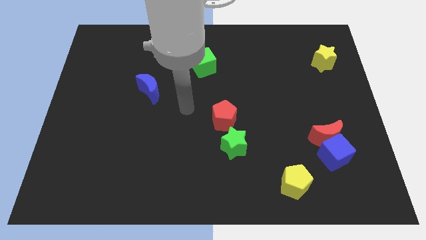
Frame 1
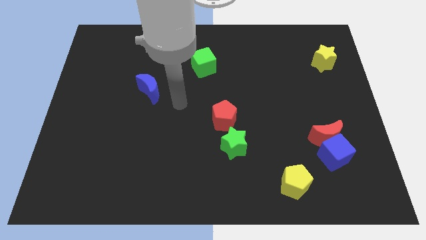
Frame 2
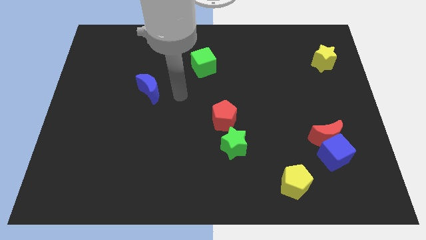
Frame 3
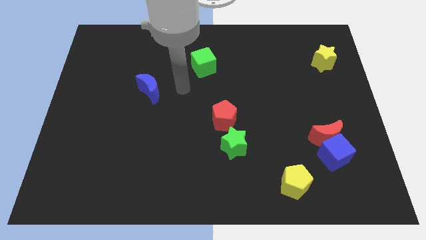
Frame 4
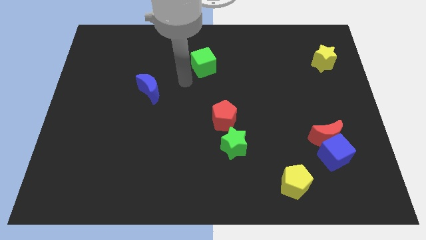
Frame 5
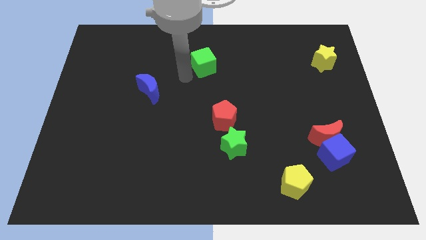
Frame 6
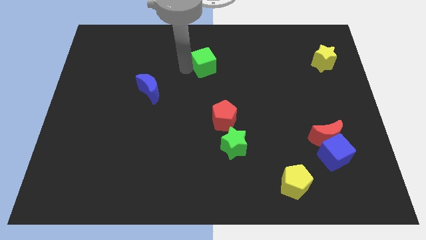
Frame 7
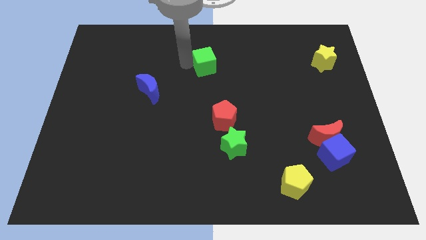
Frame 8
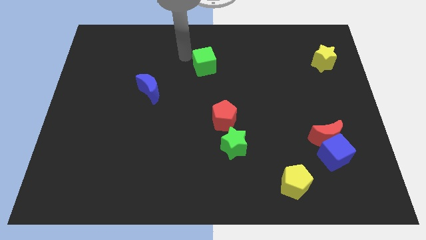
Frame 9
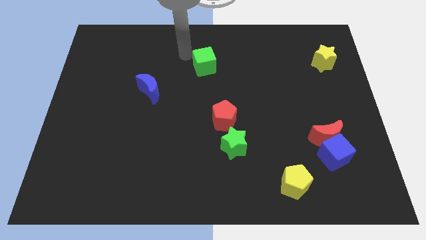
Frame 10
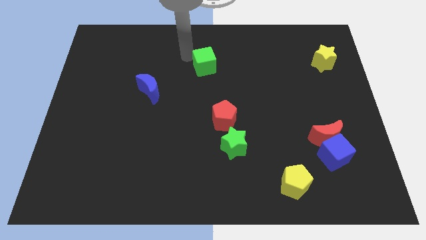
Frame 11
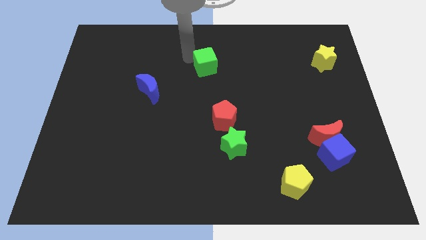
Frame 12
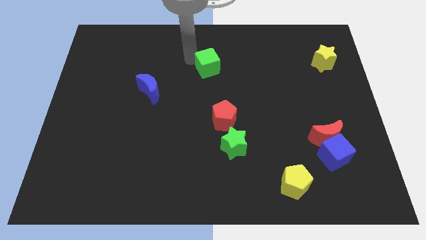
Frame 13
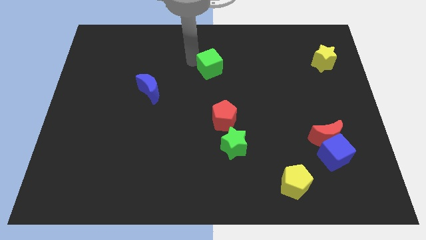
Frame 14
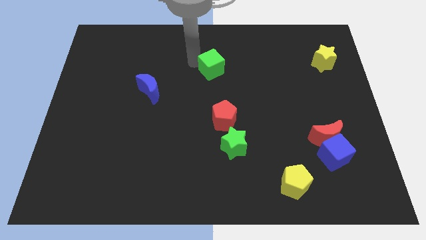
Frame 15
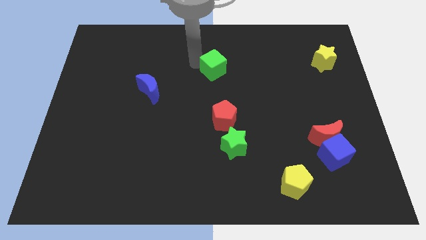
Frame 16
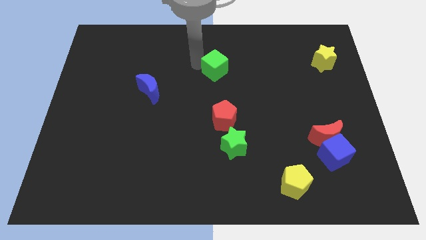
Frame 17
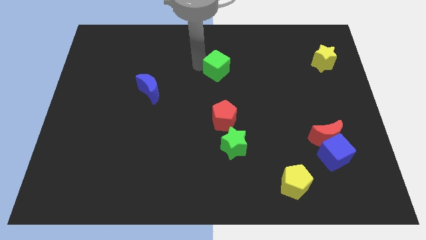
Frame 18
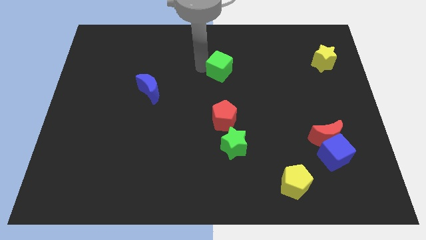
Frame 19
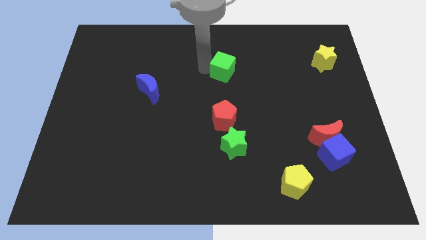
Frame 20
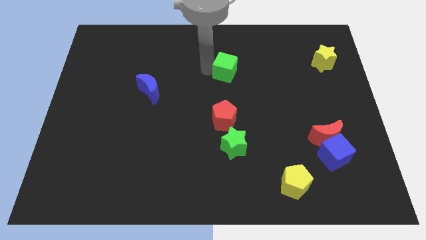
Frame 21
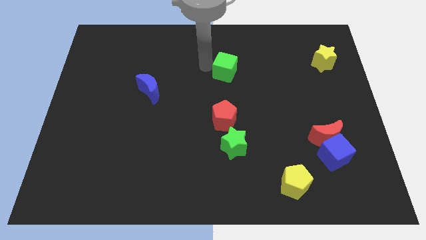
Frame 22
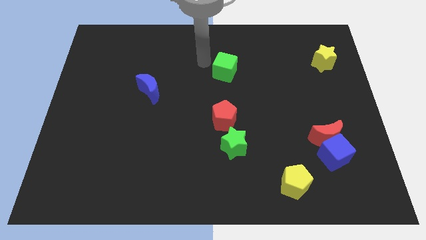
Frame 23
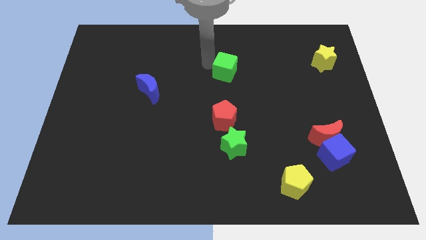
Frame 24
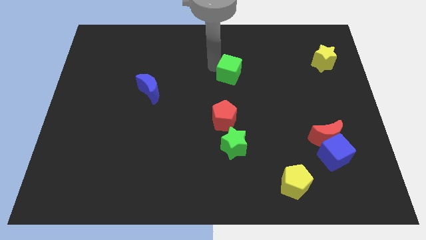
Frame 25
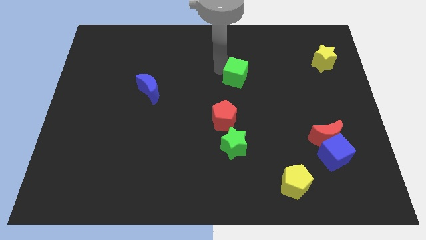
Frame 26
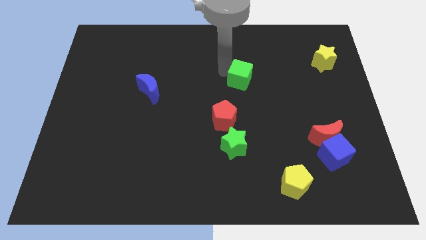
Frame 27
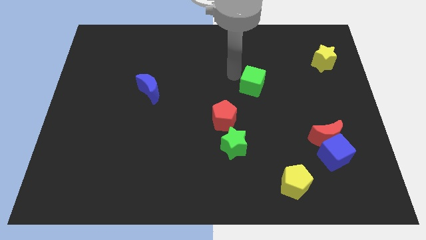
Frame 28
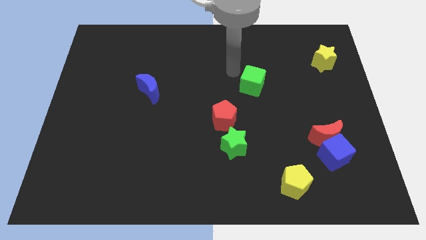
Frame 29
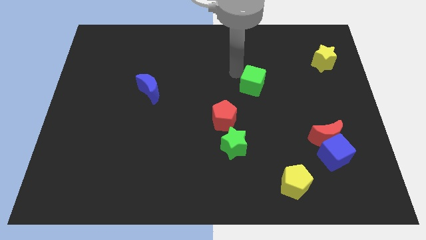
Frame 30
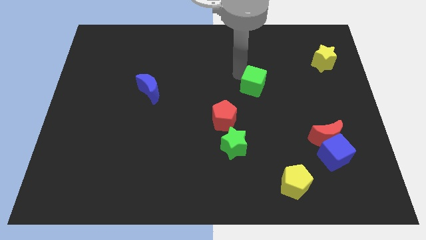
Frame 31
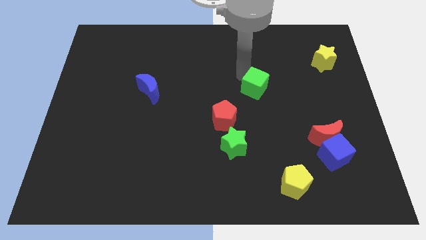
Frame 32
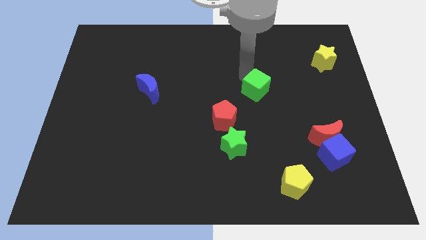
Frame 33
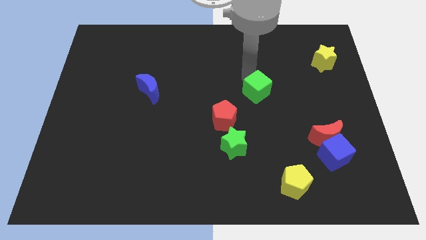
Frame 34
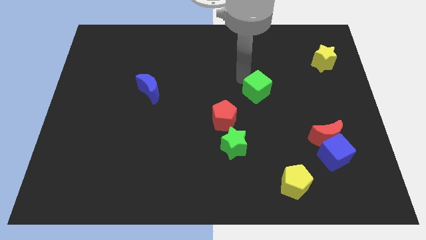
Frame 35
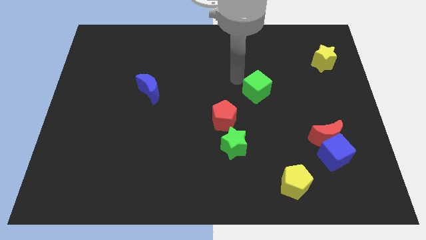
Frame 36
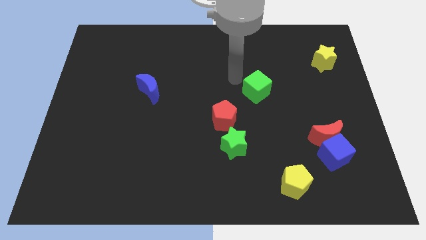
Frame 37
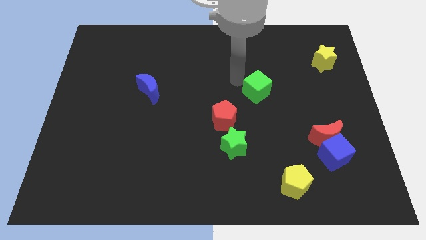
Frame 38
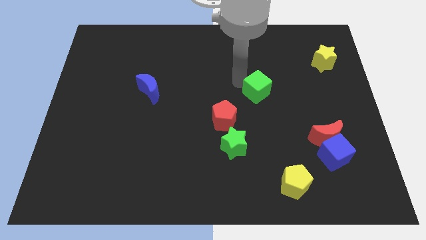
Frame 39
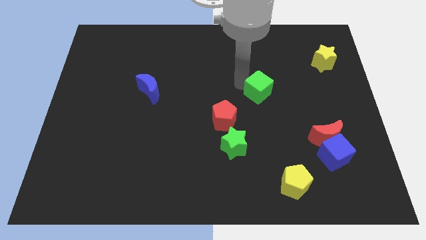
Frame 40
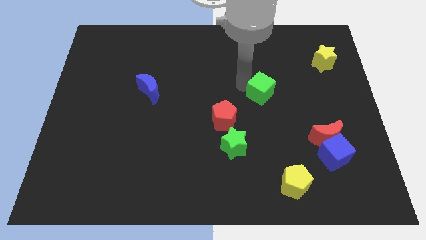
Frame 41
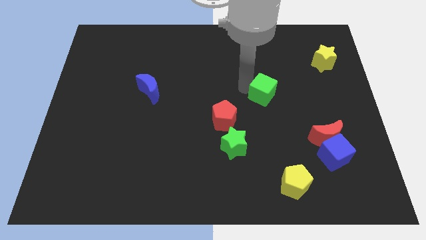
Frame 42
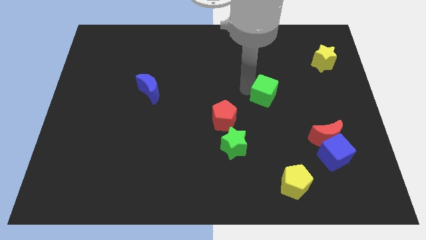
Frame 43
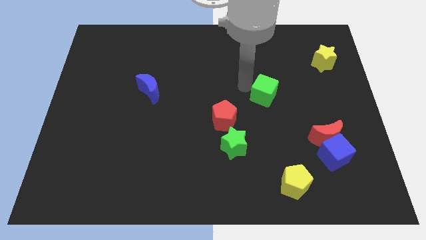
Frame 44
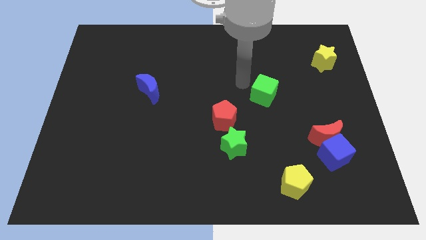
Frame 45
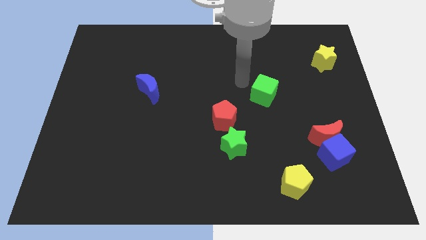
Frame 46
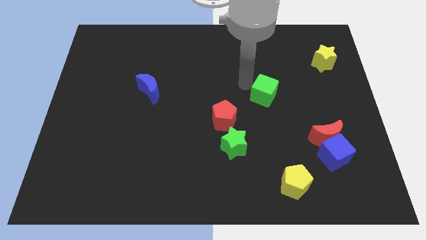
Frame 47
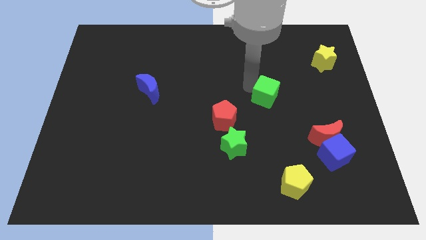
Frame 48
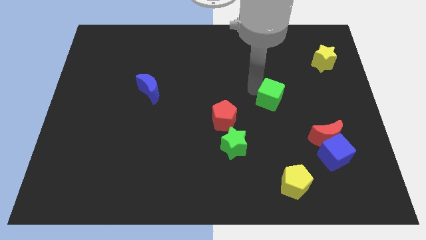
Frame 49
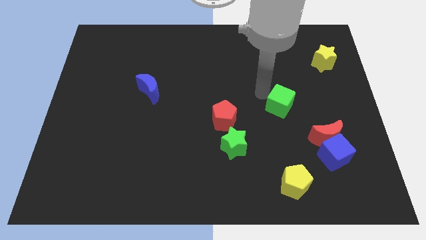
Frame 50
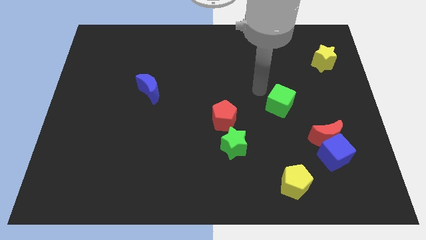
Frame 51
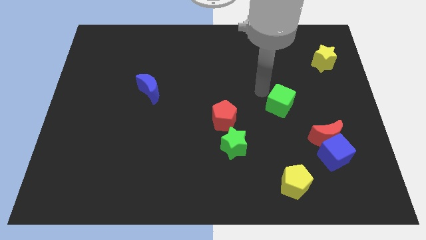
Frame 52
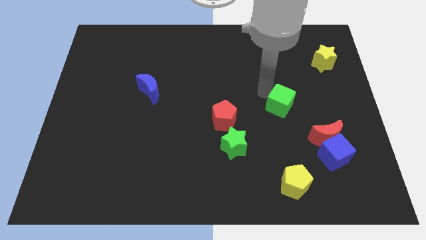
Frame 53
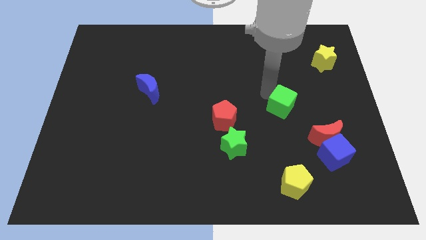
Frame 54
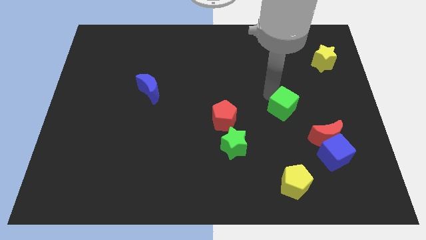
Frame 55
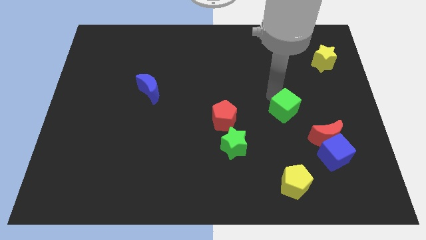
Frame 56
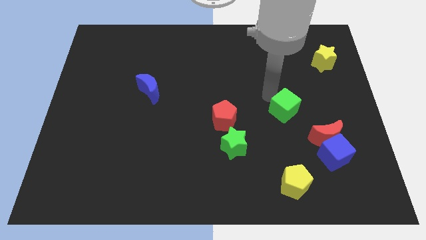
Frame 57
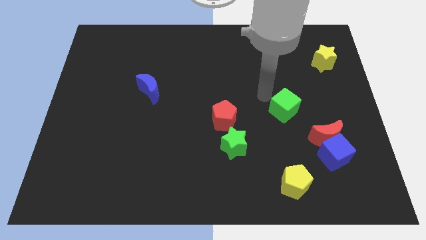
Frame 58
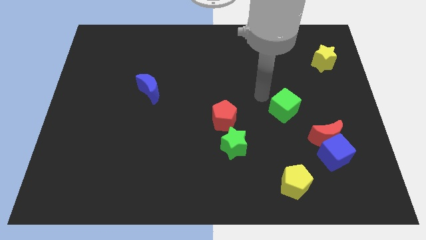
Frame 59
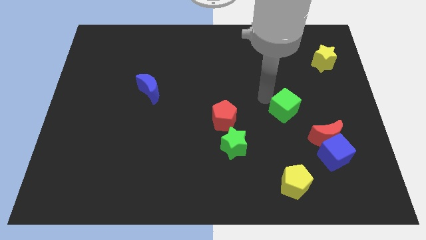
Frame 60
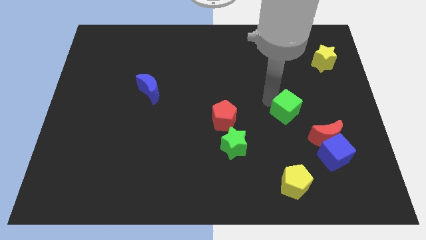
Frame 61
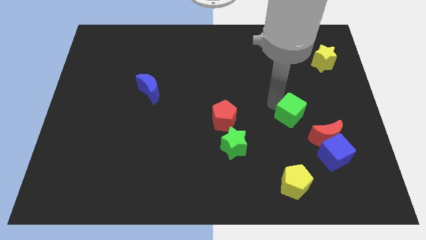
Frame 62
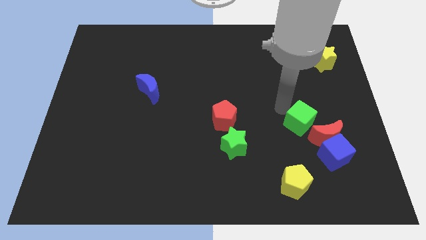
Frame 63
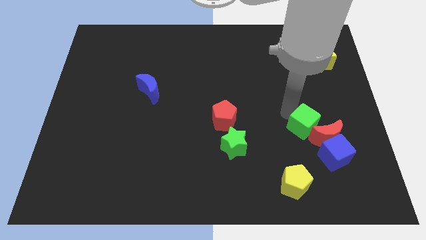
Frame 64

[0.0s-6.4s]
slide the green cube next to the red moon

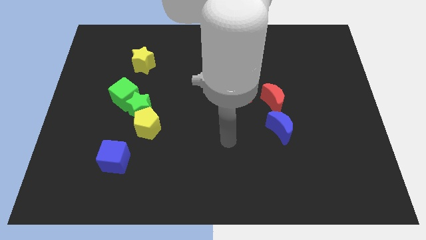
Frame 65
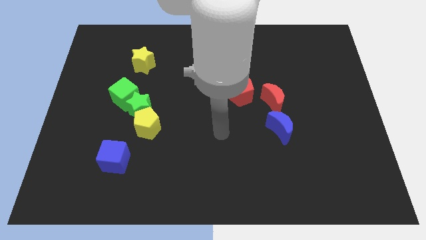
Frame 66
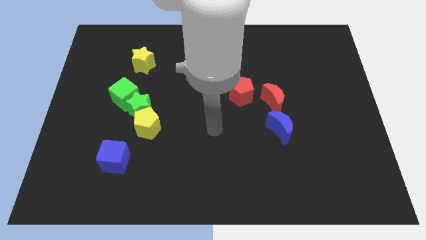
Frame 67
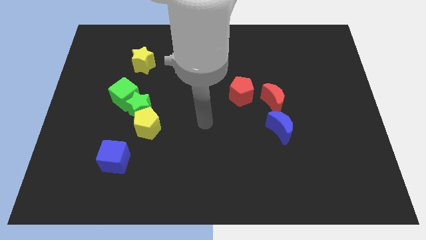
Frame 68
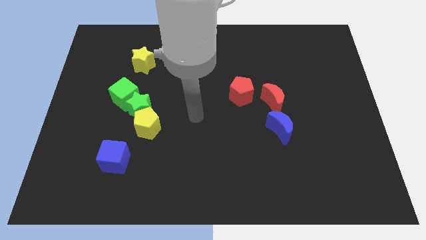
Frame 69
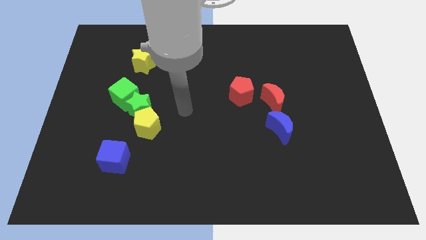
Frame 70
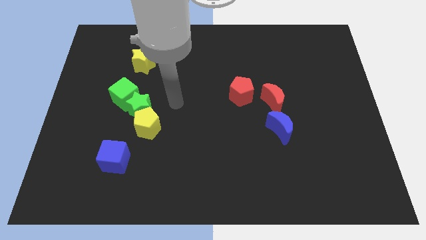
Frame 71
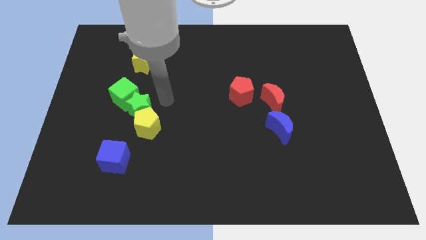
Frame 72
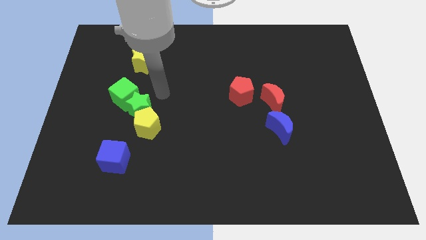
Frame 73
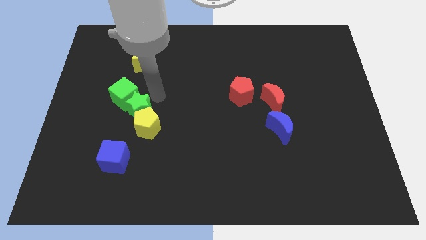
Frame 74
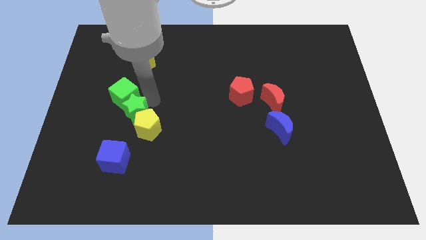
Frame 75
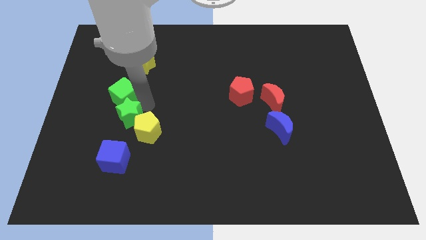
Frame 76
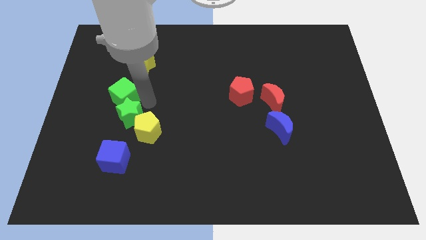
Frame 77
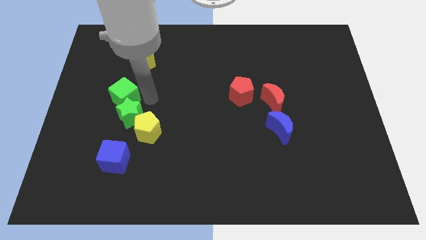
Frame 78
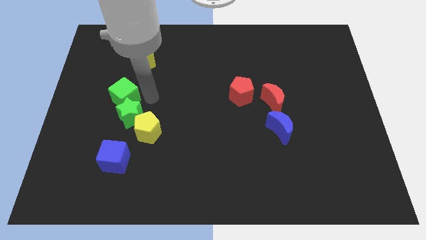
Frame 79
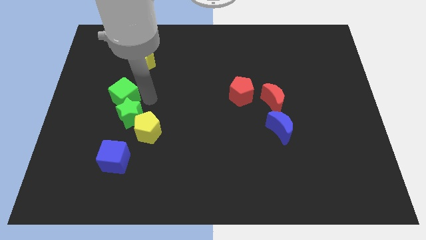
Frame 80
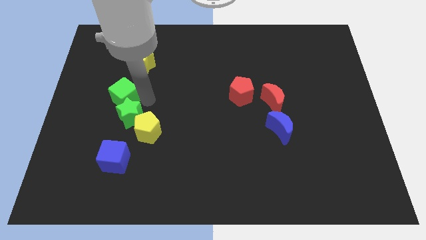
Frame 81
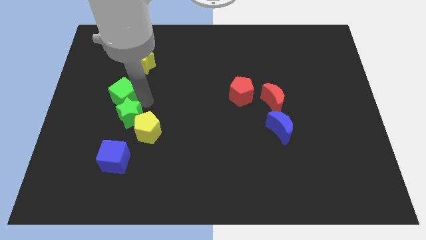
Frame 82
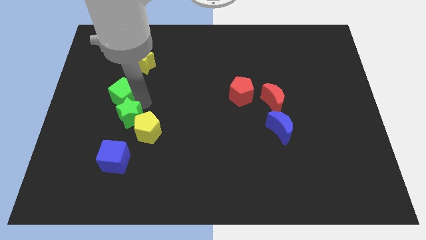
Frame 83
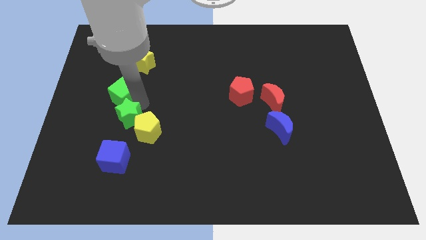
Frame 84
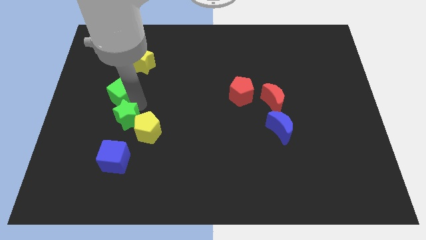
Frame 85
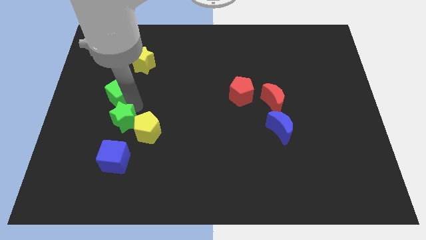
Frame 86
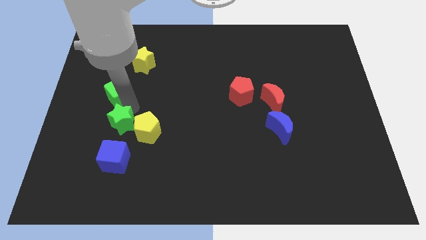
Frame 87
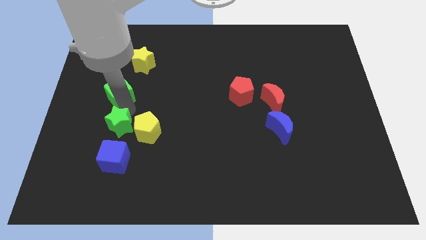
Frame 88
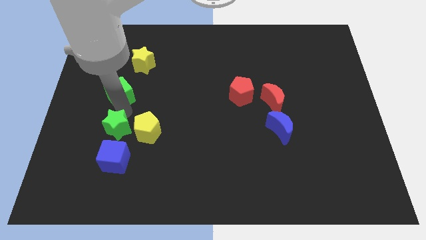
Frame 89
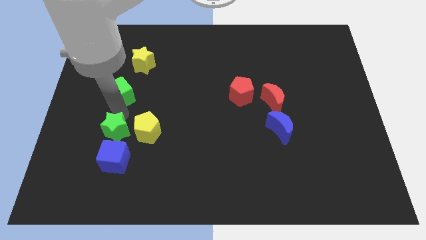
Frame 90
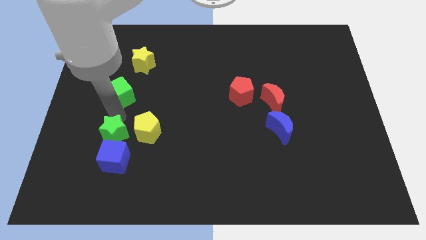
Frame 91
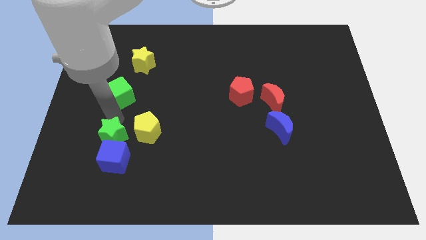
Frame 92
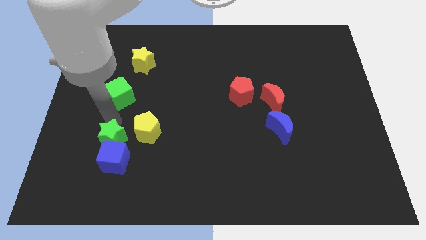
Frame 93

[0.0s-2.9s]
push the green star close to the blue cube
